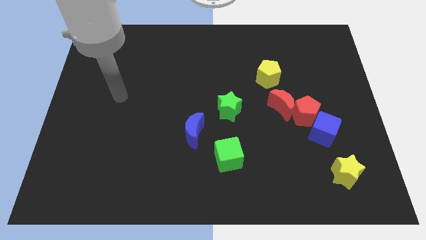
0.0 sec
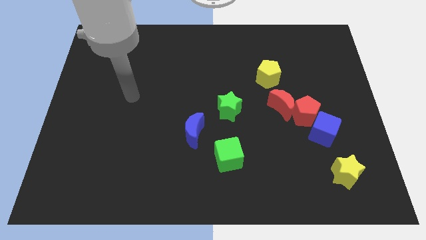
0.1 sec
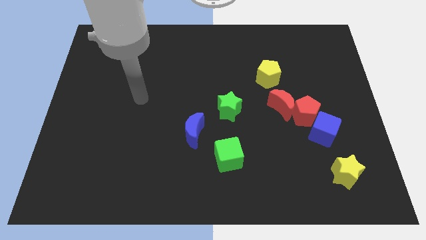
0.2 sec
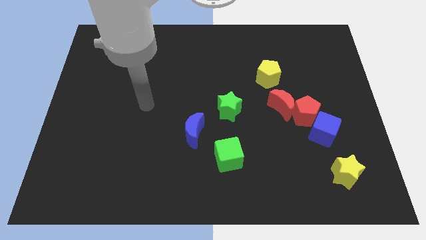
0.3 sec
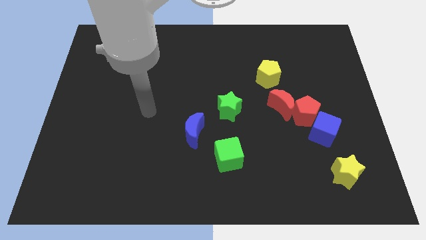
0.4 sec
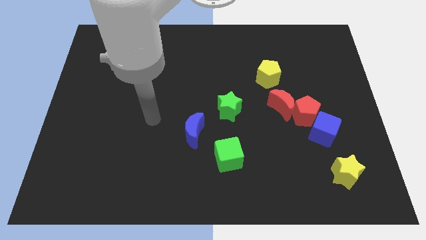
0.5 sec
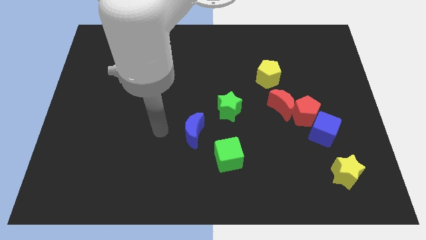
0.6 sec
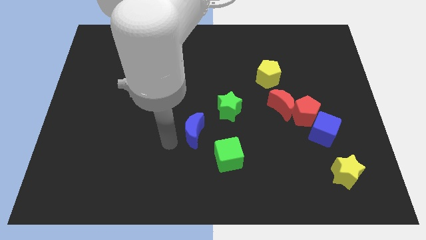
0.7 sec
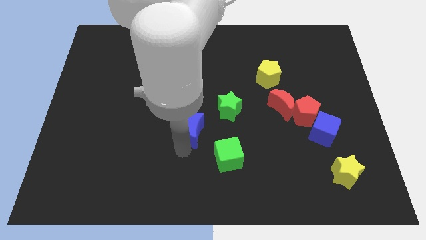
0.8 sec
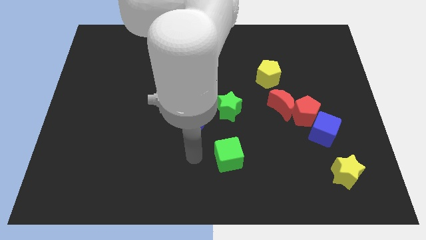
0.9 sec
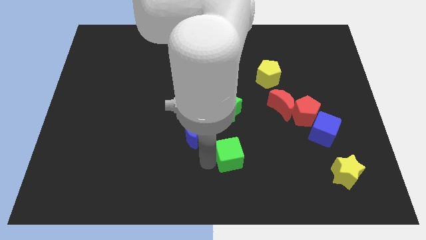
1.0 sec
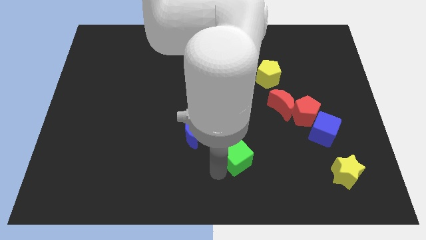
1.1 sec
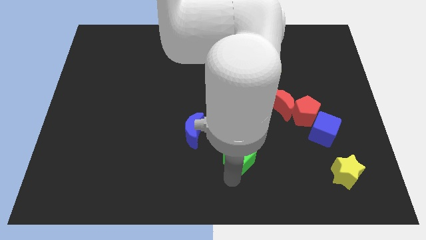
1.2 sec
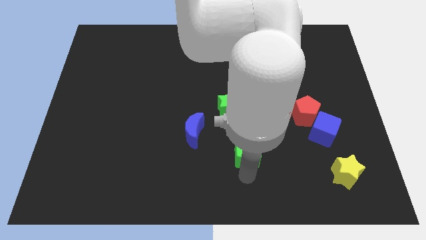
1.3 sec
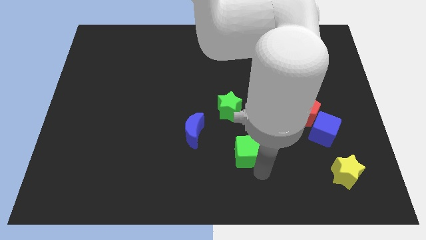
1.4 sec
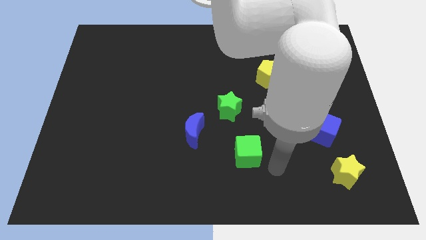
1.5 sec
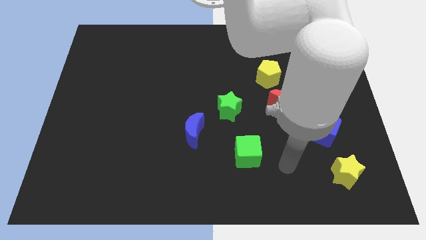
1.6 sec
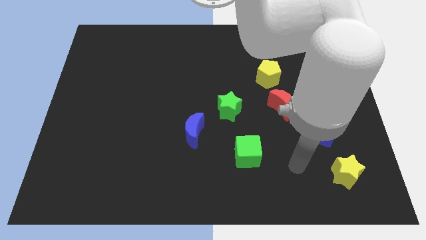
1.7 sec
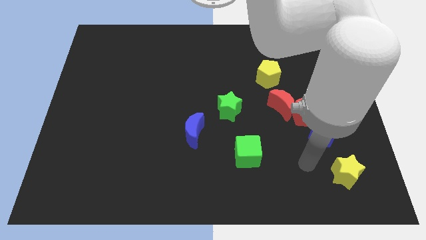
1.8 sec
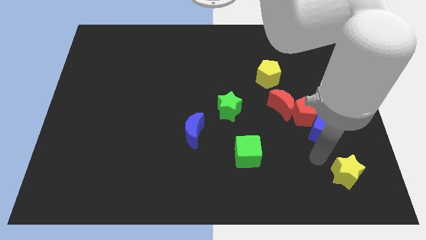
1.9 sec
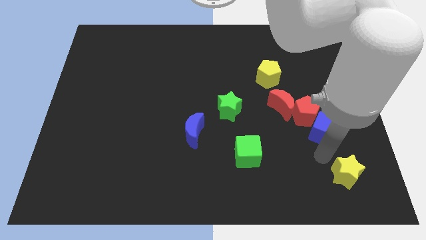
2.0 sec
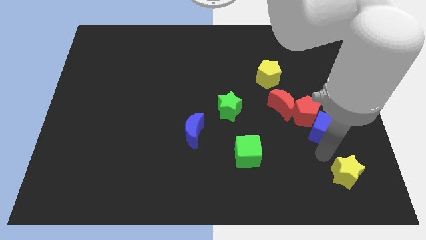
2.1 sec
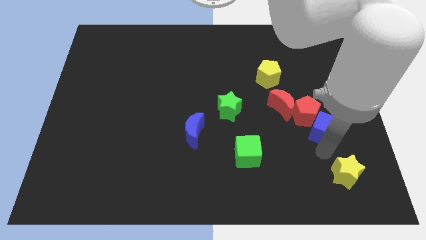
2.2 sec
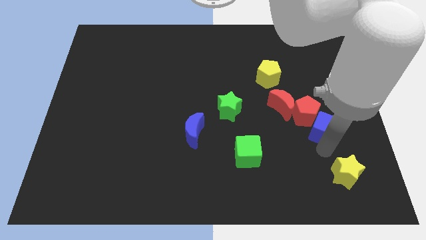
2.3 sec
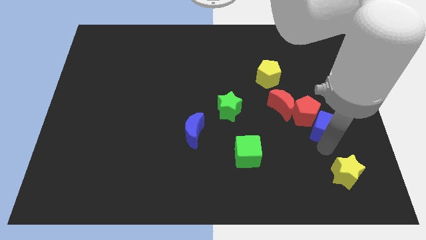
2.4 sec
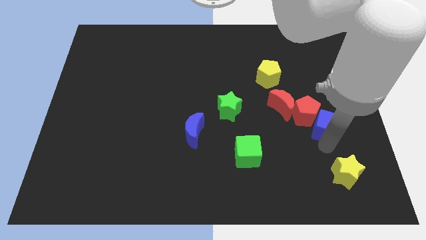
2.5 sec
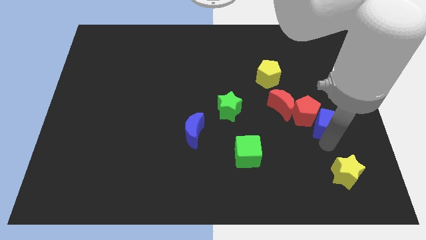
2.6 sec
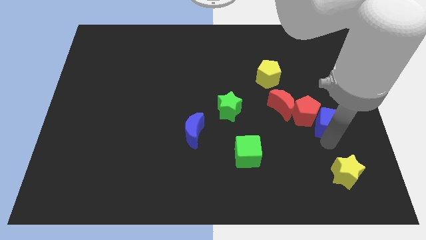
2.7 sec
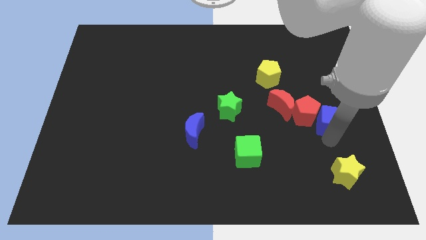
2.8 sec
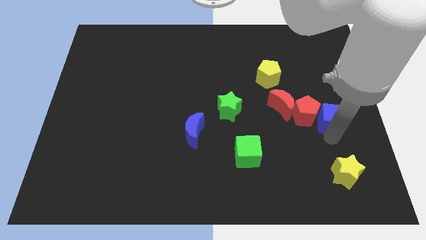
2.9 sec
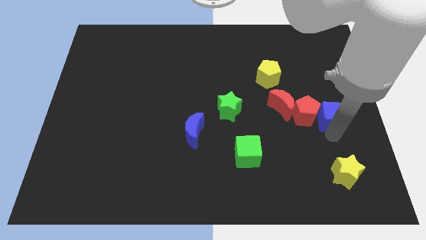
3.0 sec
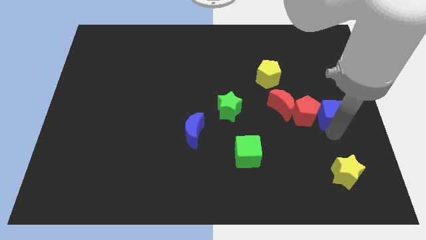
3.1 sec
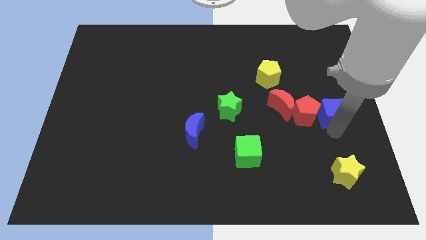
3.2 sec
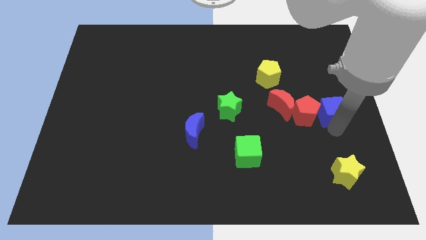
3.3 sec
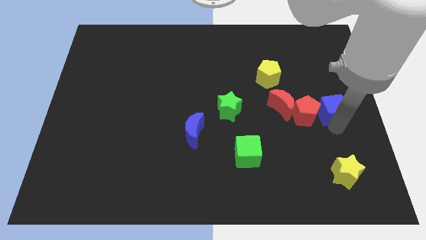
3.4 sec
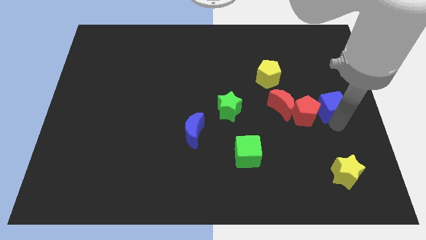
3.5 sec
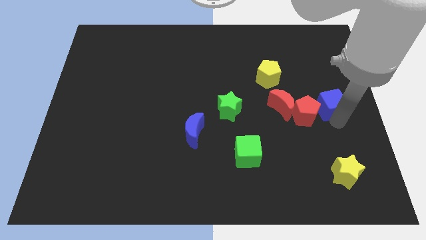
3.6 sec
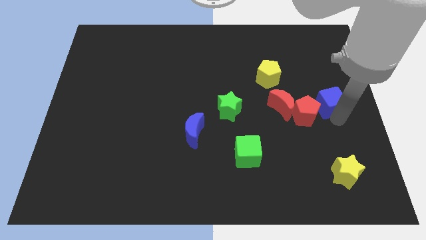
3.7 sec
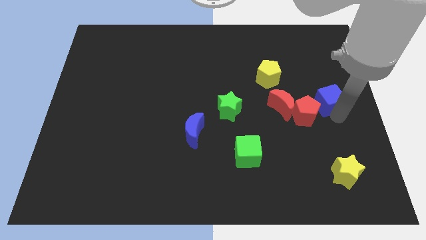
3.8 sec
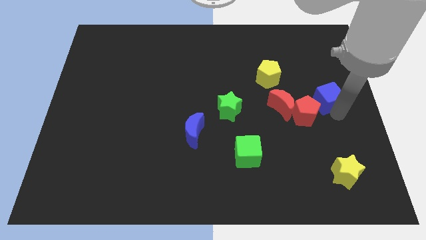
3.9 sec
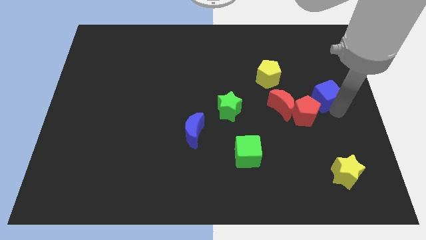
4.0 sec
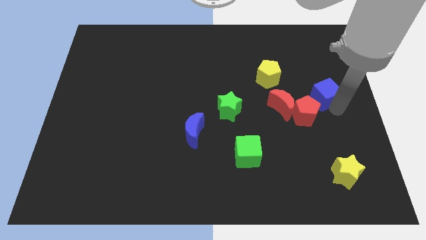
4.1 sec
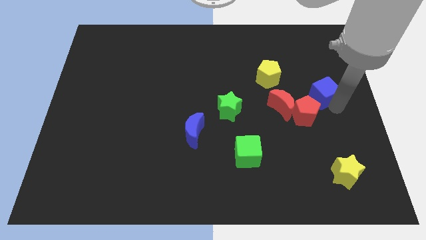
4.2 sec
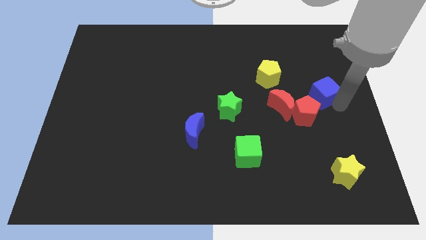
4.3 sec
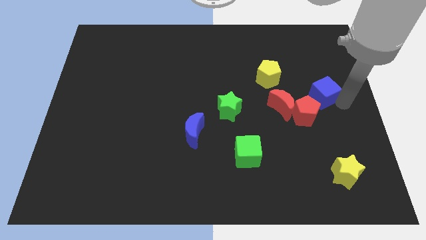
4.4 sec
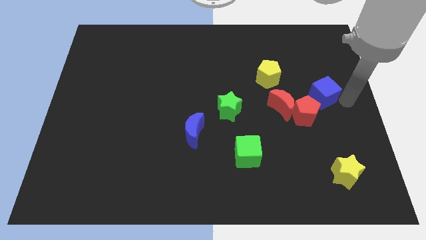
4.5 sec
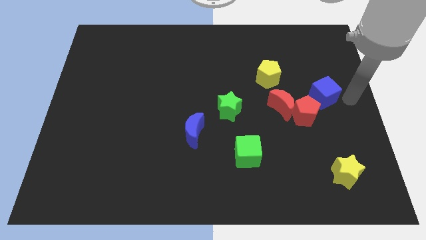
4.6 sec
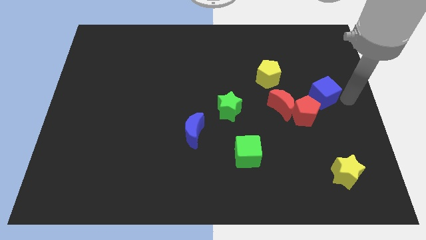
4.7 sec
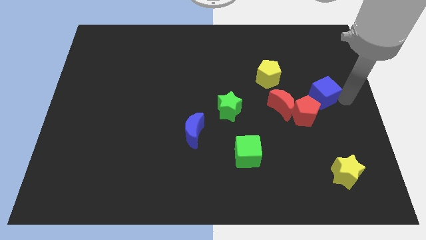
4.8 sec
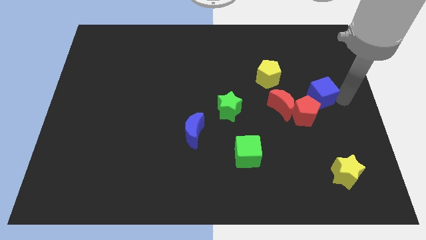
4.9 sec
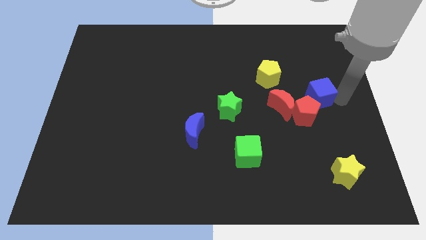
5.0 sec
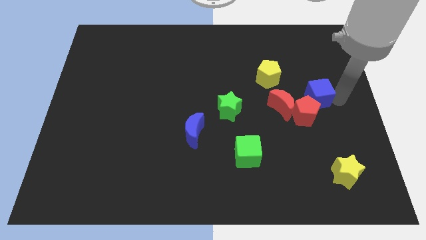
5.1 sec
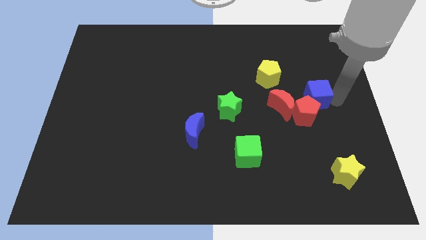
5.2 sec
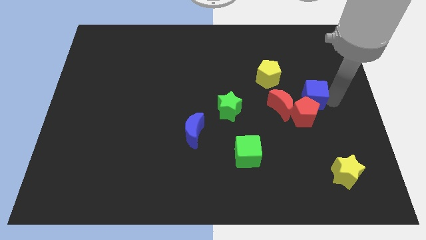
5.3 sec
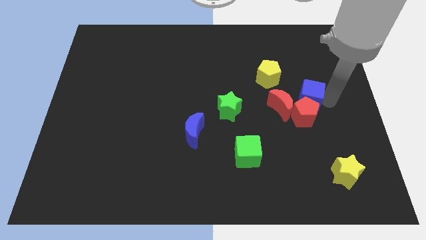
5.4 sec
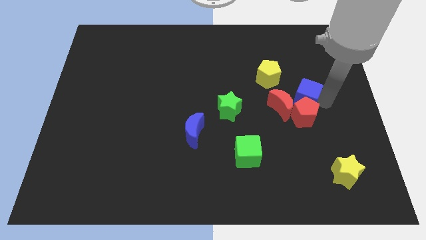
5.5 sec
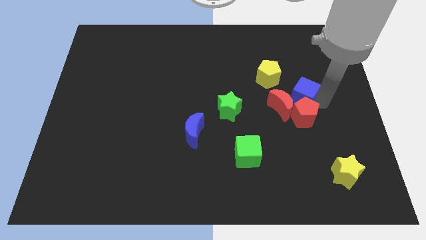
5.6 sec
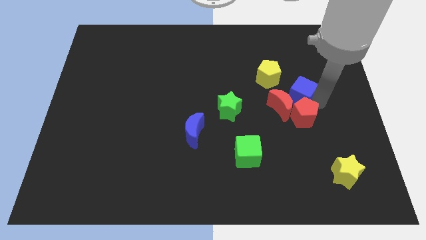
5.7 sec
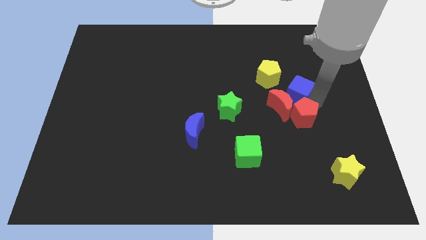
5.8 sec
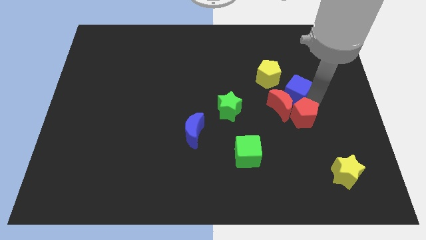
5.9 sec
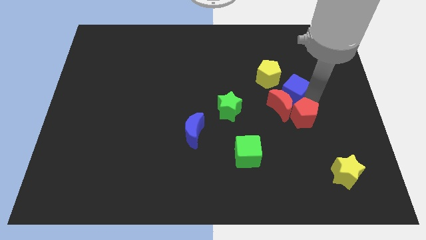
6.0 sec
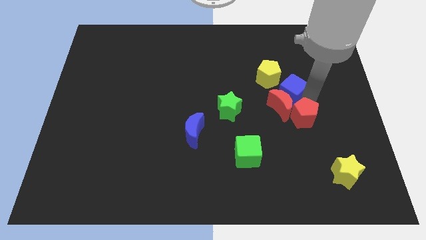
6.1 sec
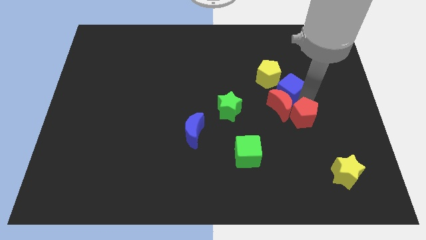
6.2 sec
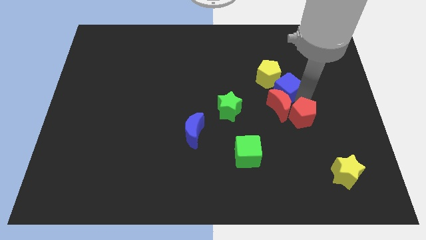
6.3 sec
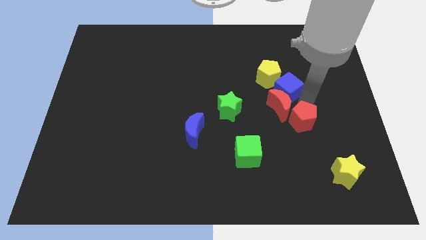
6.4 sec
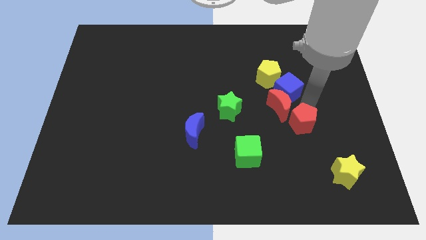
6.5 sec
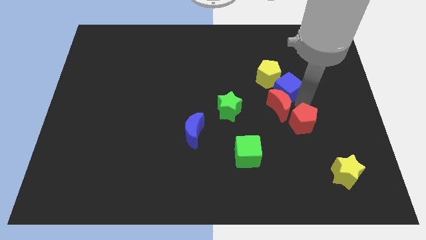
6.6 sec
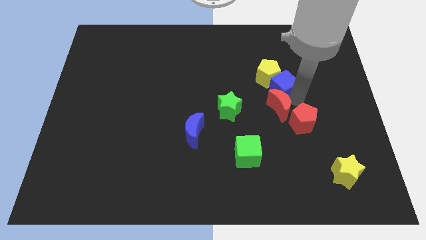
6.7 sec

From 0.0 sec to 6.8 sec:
slide the blue cube towards the yellow pentagon

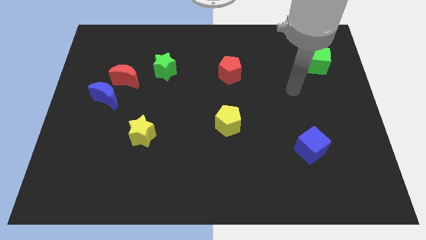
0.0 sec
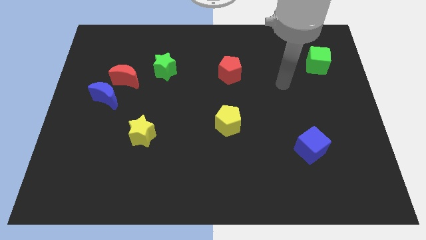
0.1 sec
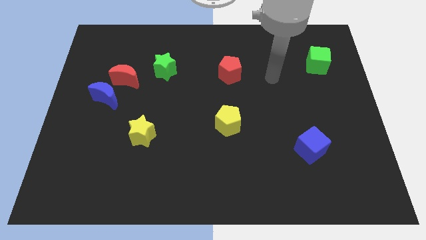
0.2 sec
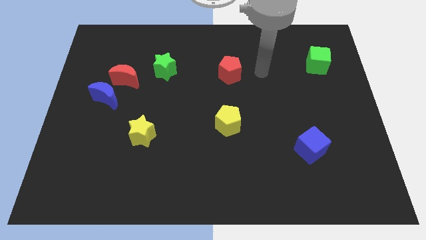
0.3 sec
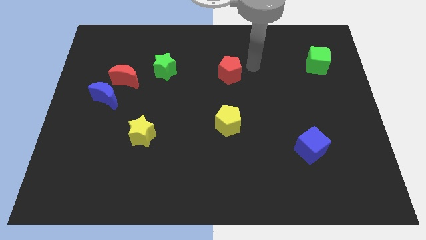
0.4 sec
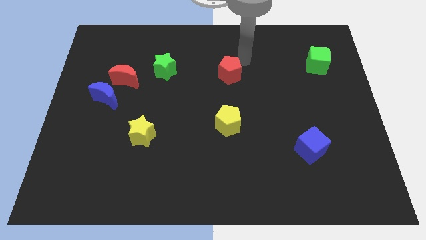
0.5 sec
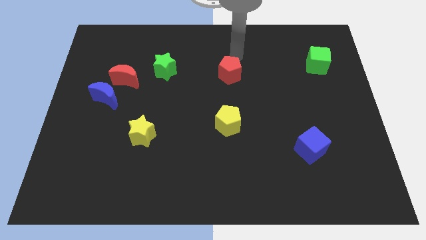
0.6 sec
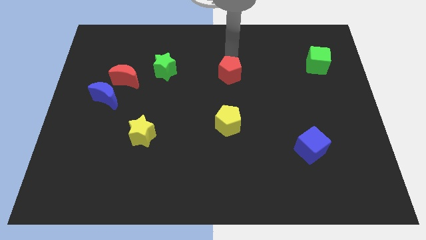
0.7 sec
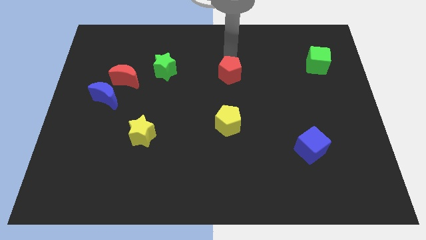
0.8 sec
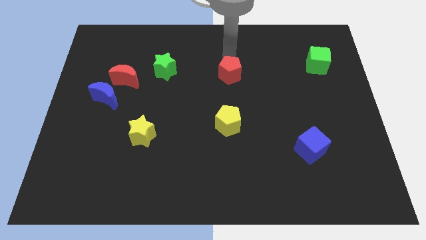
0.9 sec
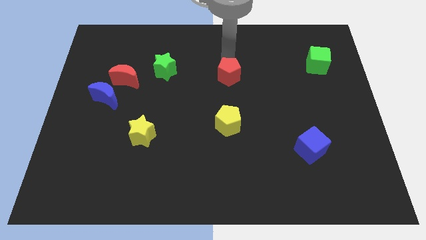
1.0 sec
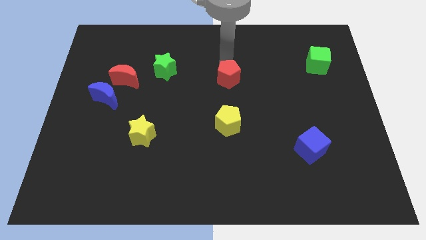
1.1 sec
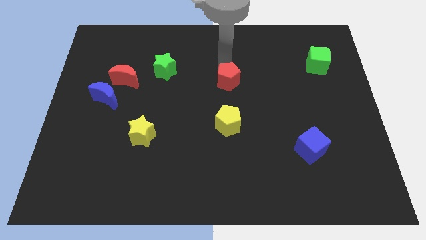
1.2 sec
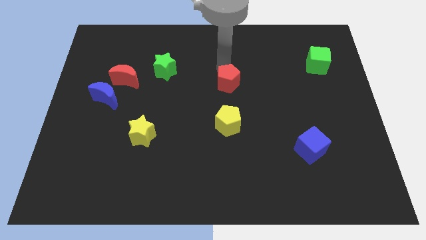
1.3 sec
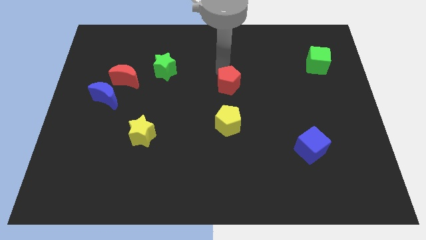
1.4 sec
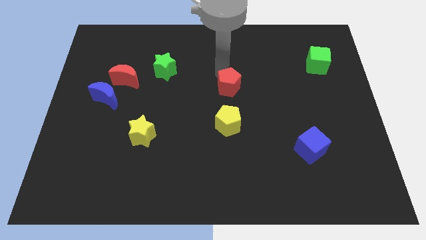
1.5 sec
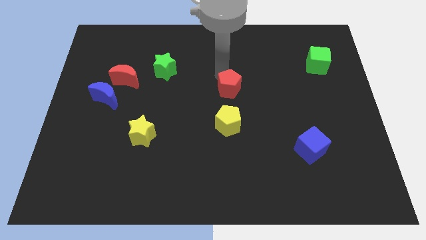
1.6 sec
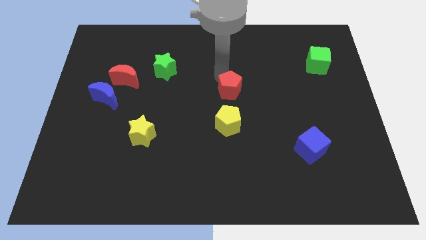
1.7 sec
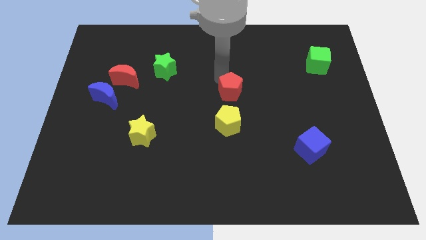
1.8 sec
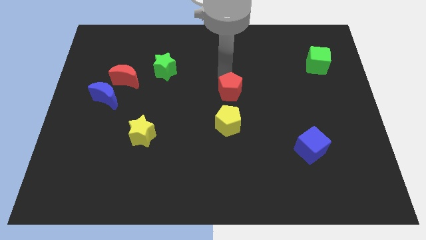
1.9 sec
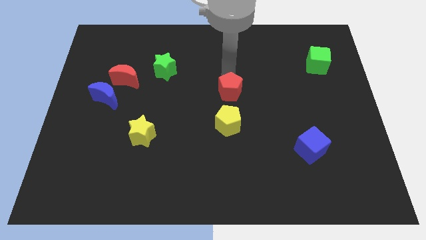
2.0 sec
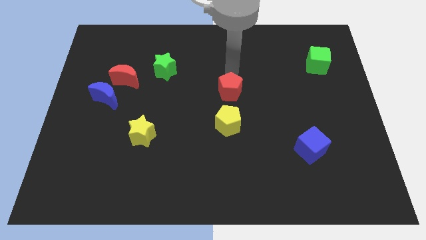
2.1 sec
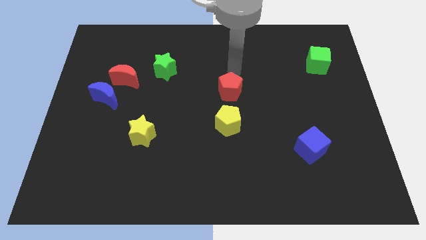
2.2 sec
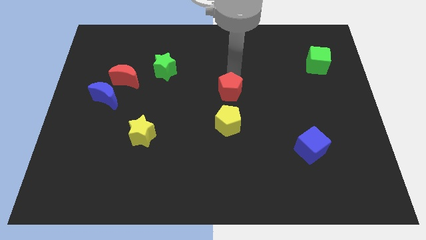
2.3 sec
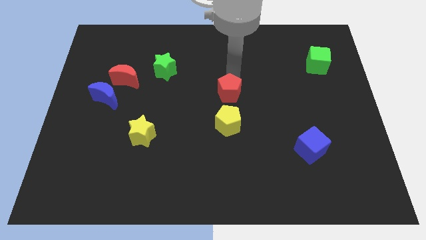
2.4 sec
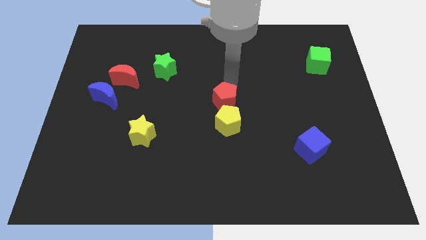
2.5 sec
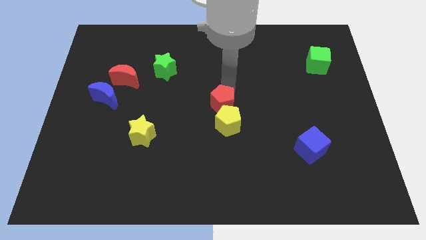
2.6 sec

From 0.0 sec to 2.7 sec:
push the red pentagon towards the yellow pentagon
